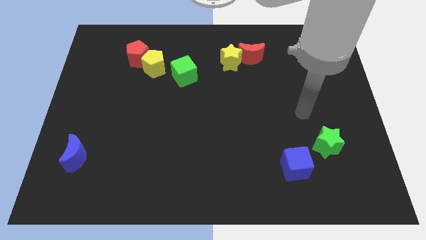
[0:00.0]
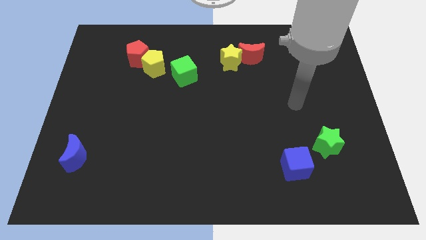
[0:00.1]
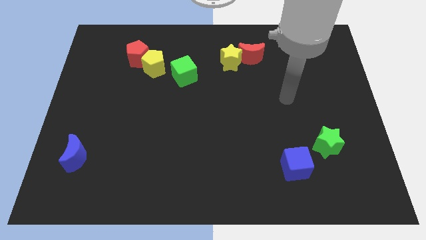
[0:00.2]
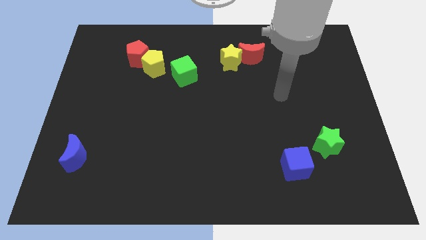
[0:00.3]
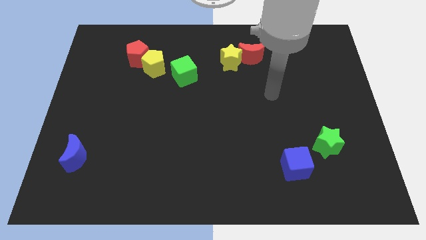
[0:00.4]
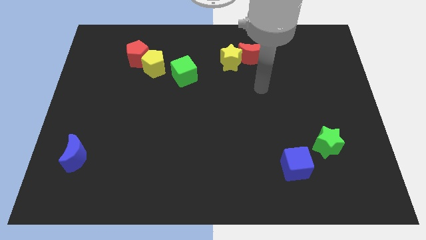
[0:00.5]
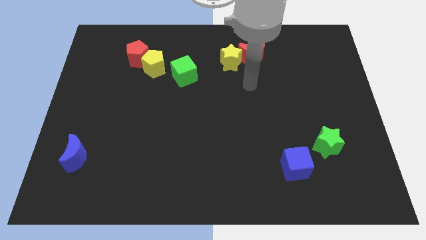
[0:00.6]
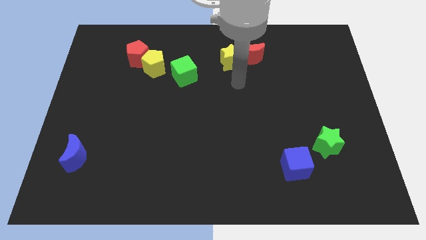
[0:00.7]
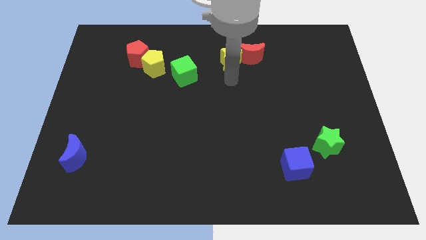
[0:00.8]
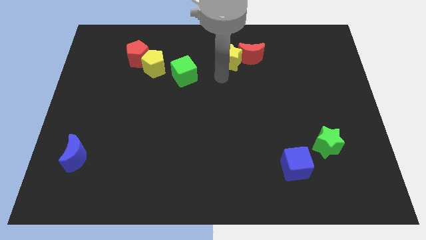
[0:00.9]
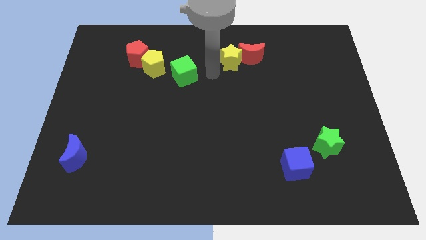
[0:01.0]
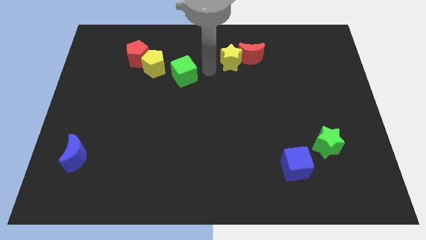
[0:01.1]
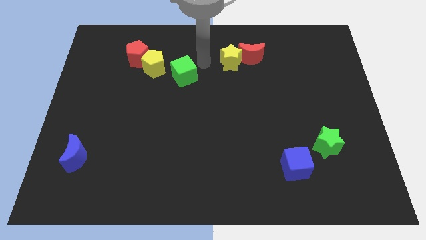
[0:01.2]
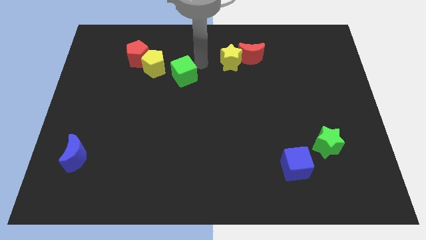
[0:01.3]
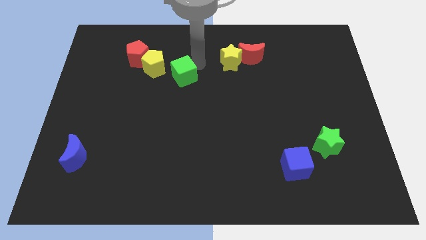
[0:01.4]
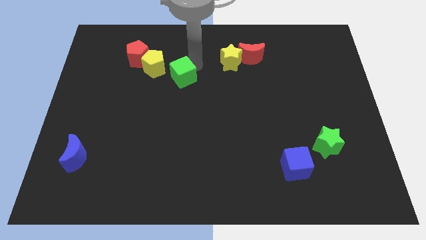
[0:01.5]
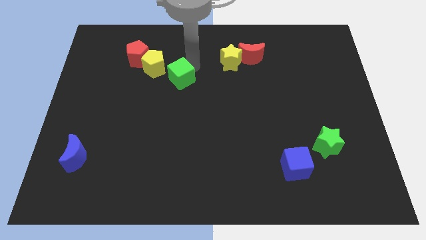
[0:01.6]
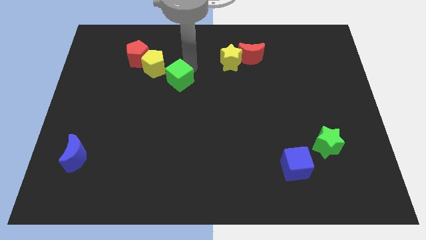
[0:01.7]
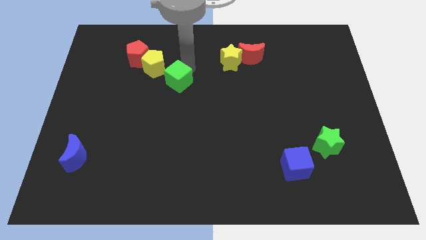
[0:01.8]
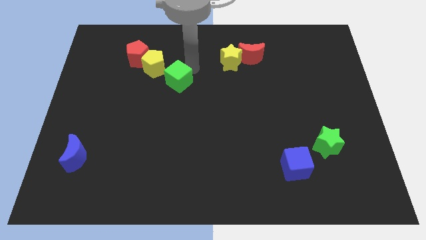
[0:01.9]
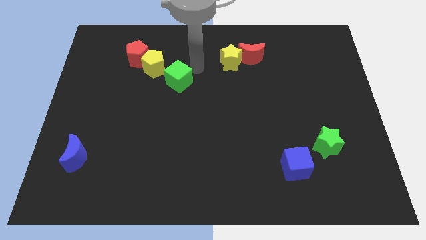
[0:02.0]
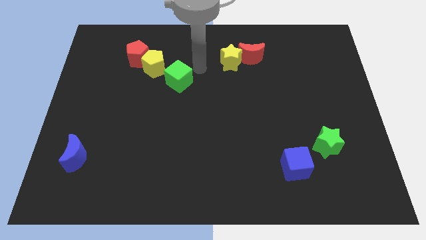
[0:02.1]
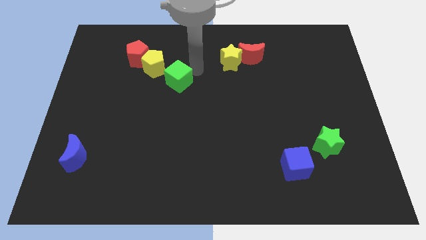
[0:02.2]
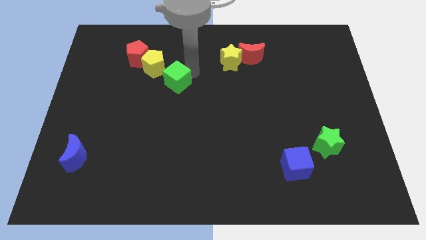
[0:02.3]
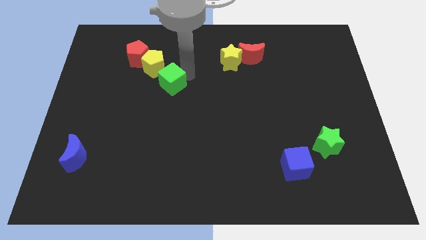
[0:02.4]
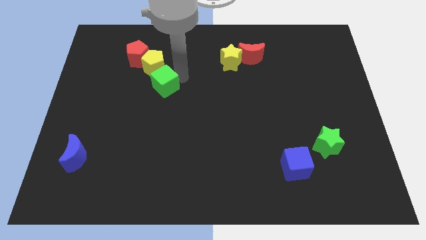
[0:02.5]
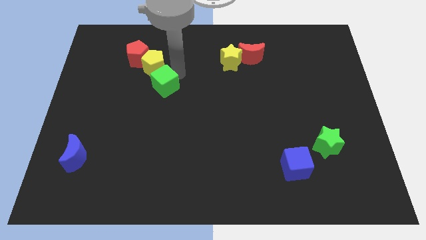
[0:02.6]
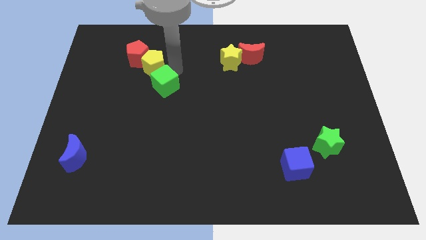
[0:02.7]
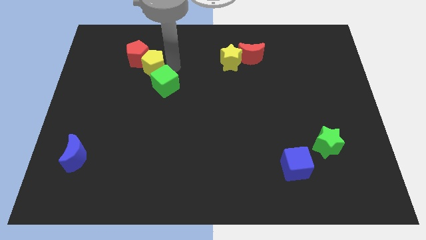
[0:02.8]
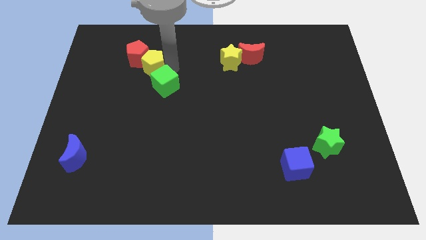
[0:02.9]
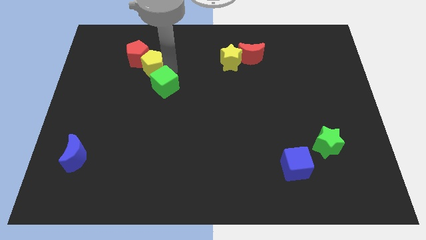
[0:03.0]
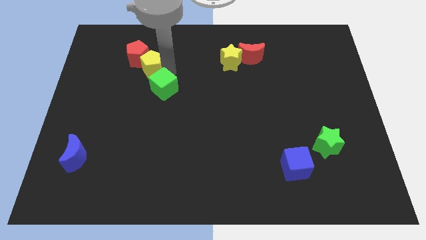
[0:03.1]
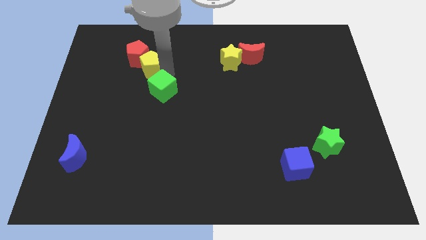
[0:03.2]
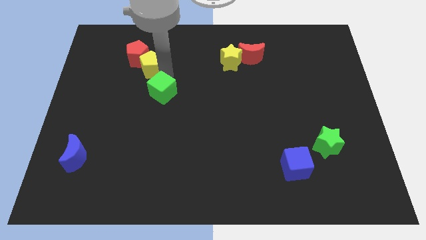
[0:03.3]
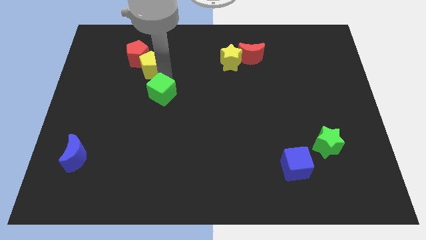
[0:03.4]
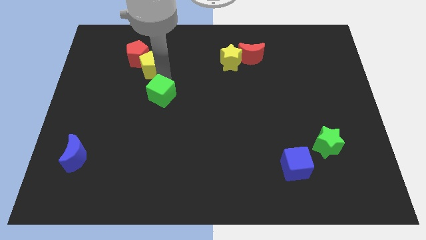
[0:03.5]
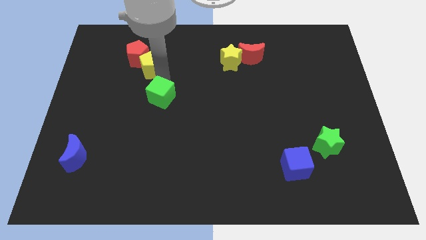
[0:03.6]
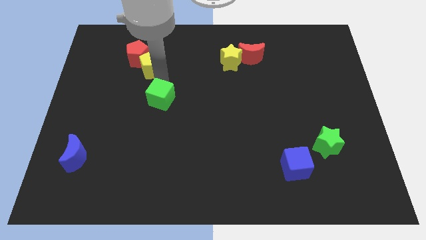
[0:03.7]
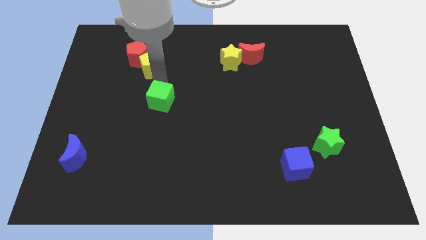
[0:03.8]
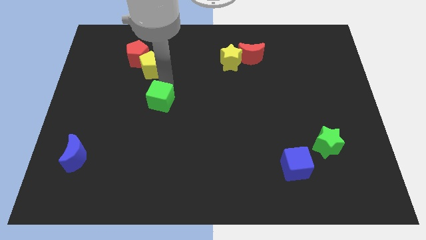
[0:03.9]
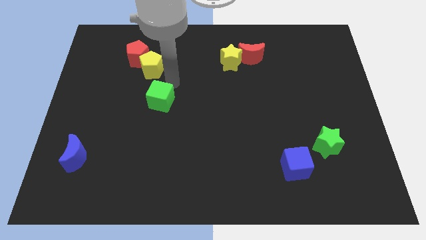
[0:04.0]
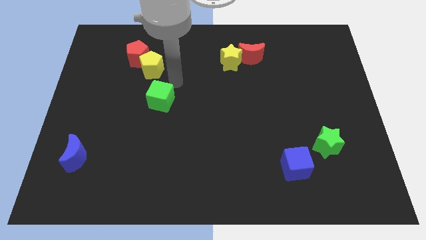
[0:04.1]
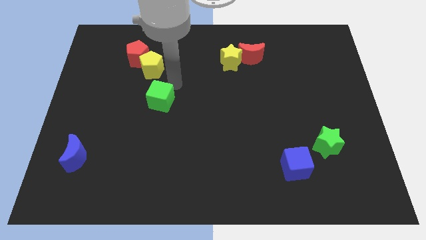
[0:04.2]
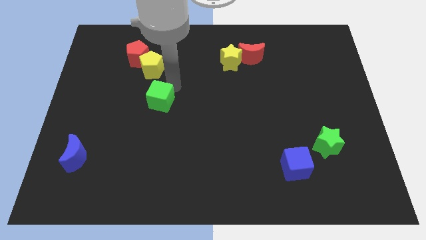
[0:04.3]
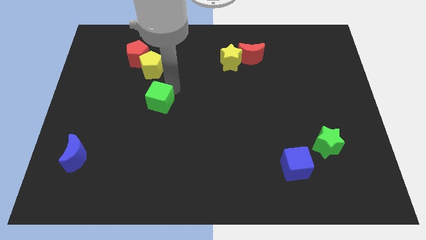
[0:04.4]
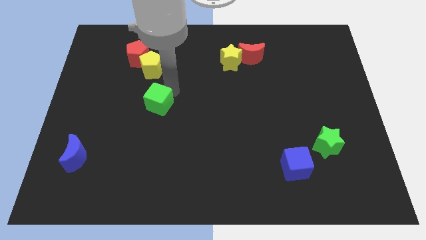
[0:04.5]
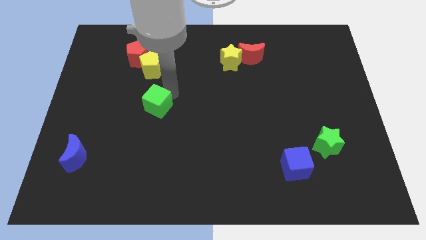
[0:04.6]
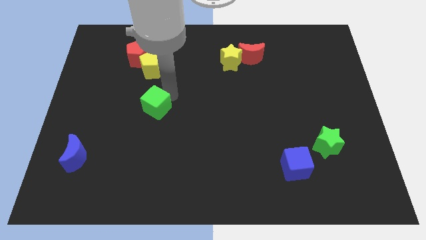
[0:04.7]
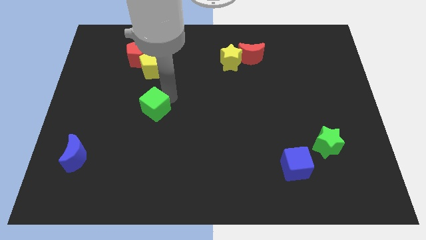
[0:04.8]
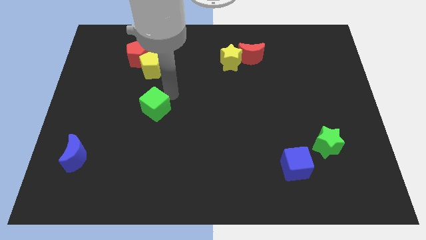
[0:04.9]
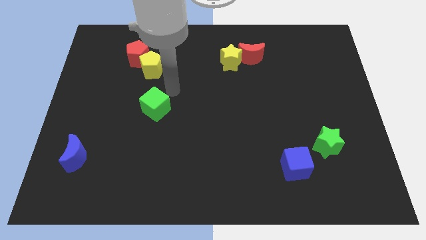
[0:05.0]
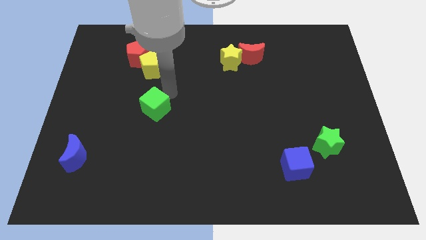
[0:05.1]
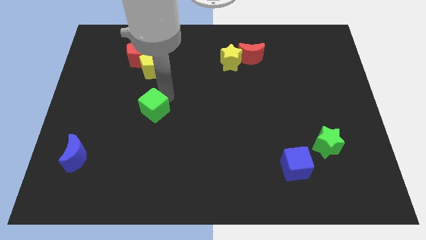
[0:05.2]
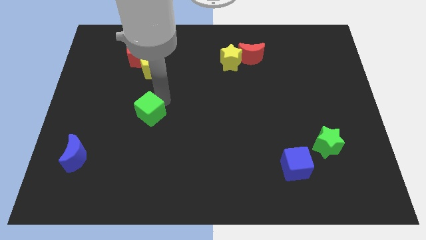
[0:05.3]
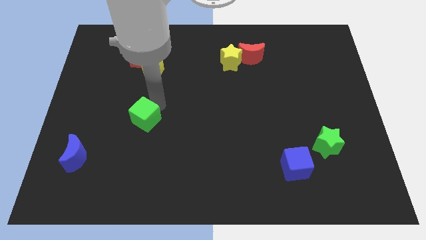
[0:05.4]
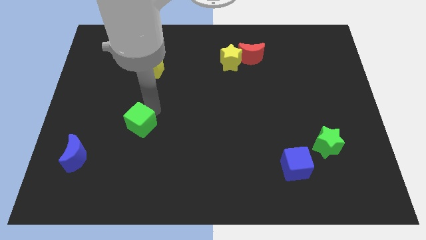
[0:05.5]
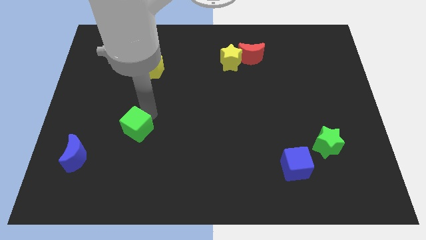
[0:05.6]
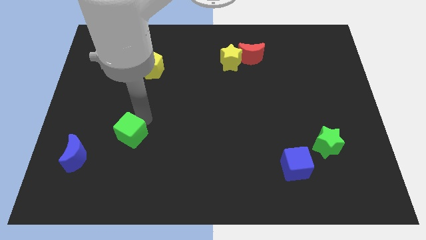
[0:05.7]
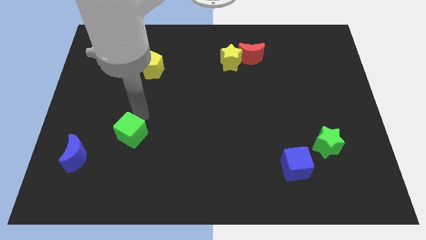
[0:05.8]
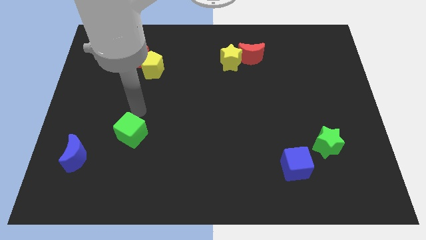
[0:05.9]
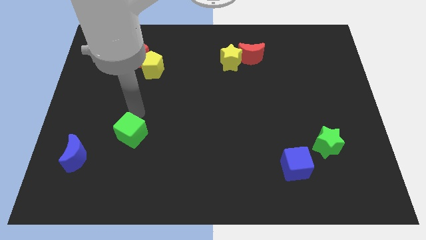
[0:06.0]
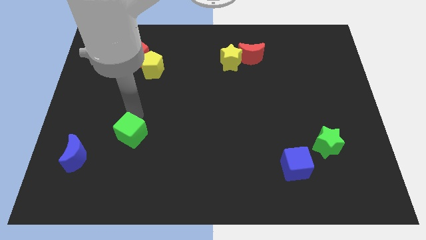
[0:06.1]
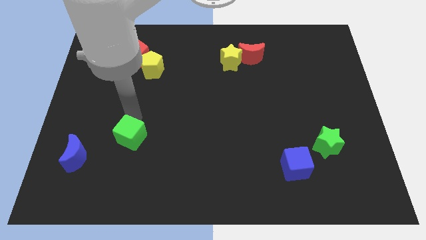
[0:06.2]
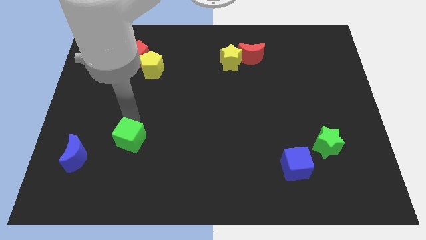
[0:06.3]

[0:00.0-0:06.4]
put the green cube just right of the blue moon

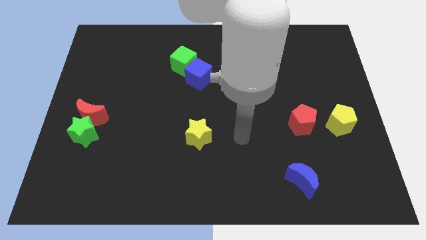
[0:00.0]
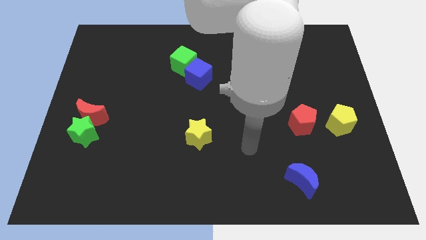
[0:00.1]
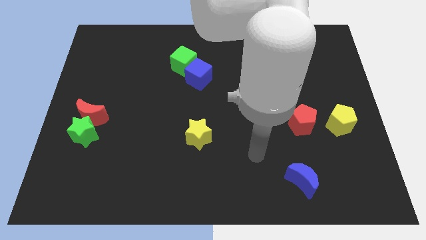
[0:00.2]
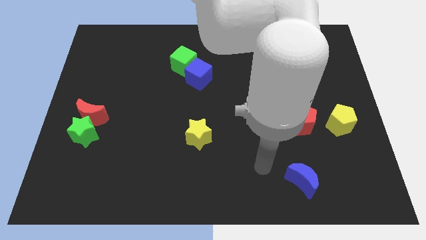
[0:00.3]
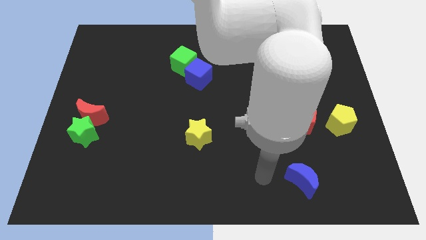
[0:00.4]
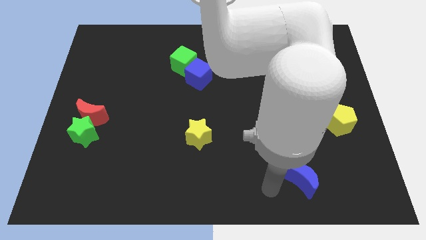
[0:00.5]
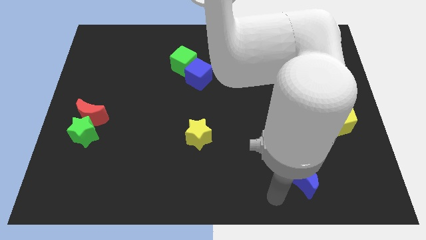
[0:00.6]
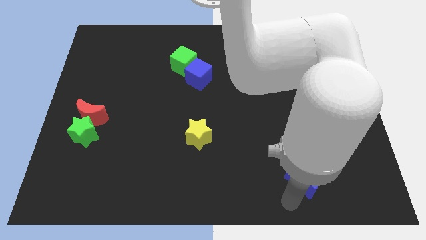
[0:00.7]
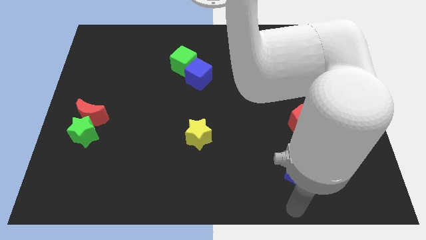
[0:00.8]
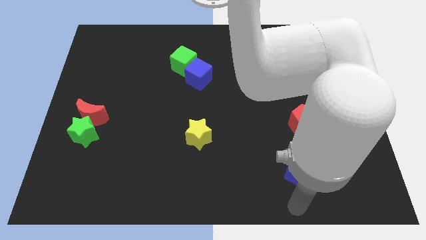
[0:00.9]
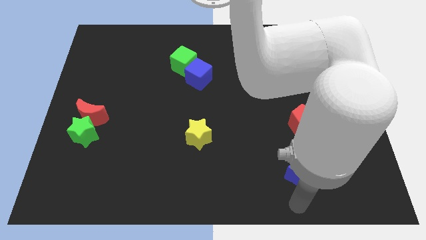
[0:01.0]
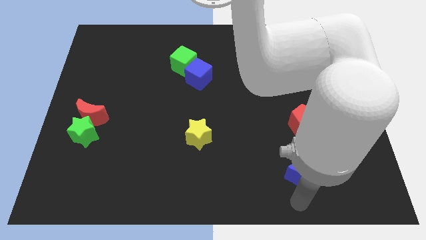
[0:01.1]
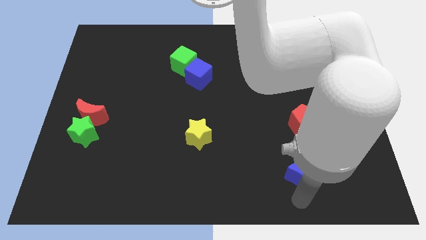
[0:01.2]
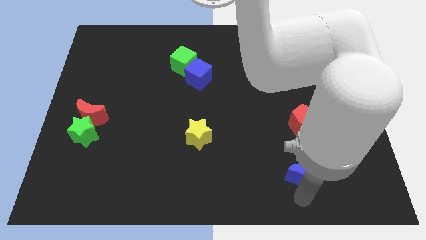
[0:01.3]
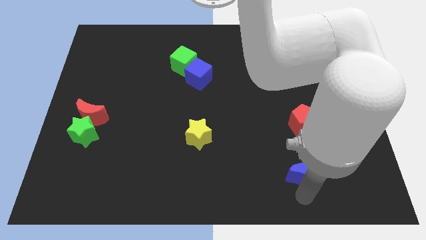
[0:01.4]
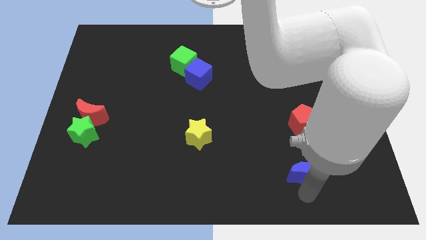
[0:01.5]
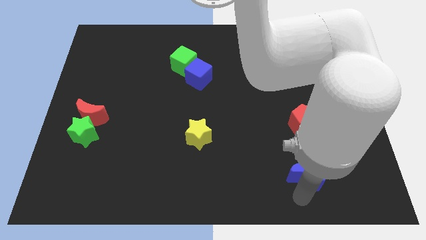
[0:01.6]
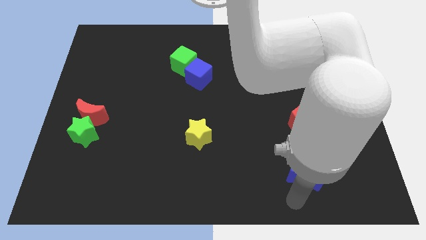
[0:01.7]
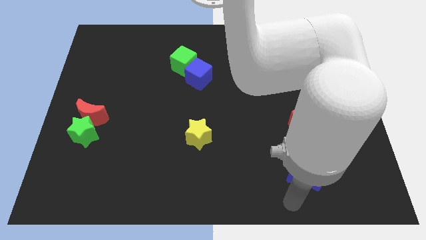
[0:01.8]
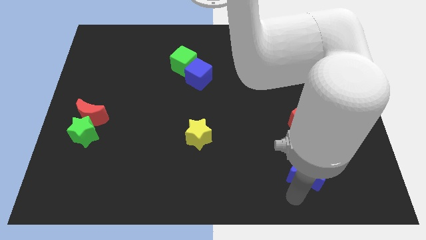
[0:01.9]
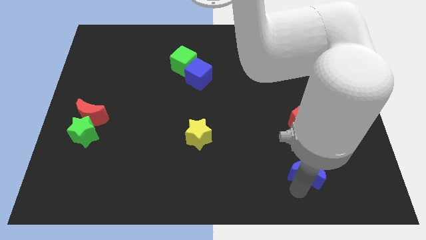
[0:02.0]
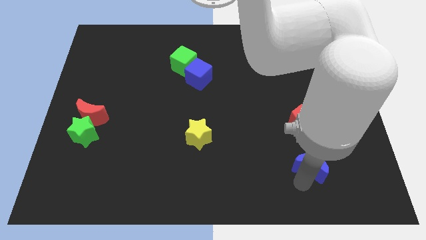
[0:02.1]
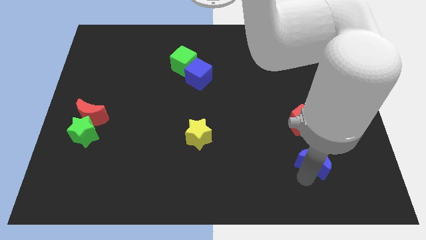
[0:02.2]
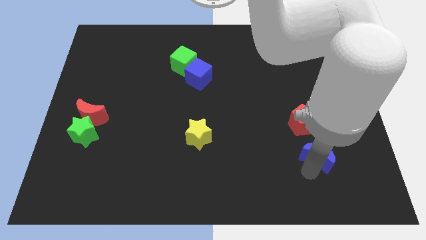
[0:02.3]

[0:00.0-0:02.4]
slide the blue moon diagonally down and to the left of the yellow pentagon
